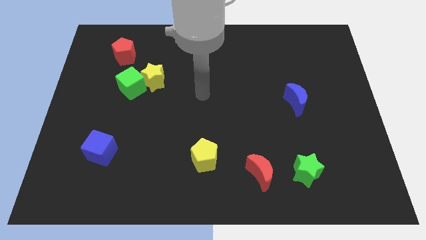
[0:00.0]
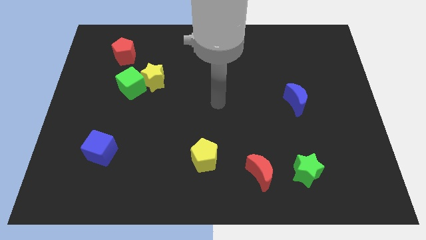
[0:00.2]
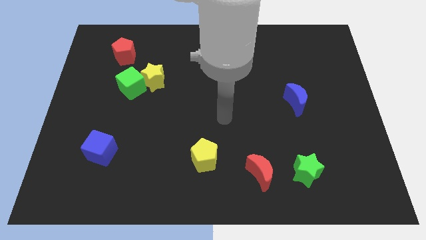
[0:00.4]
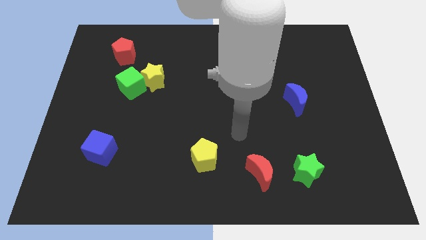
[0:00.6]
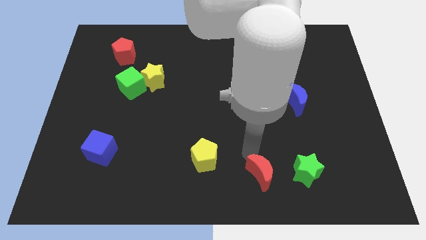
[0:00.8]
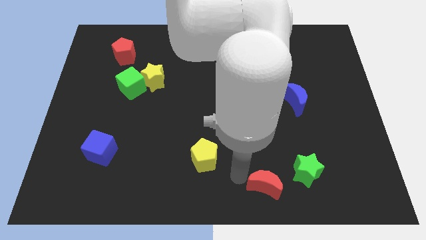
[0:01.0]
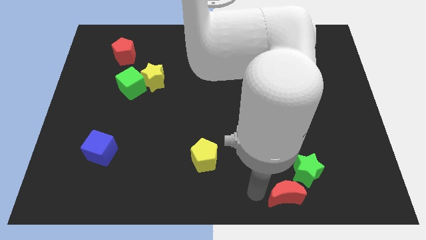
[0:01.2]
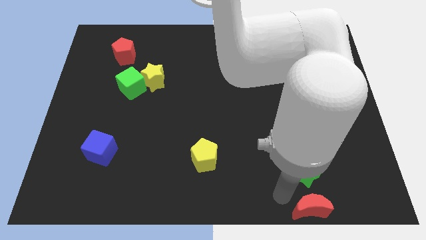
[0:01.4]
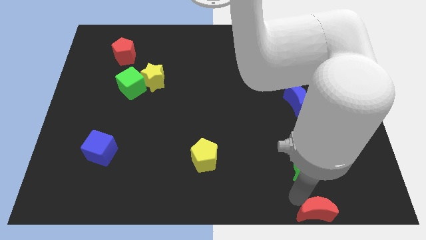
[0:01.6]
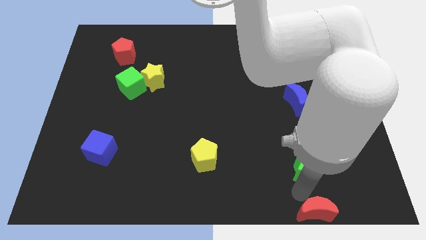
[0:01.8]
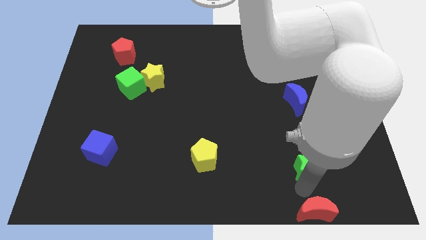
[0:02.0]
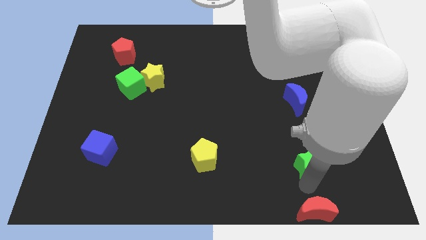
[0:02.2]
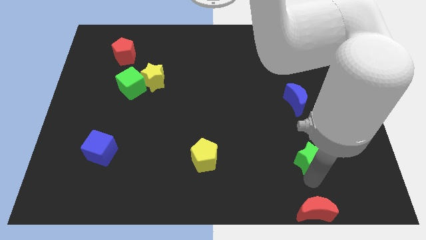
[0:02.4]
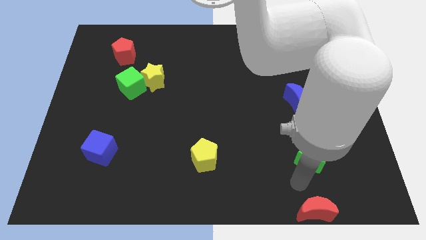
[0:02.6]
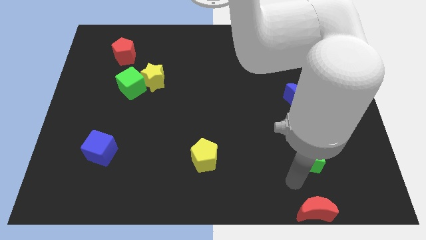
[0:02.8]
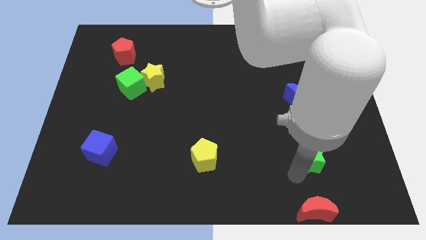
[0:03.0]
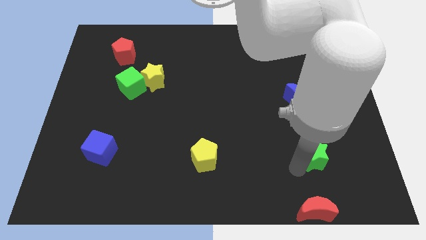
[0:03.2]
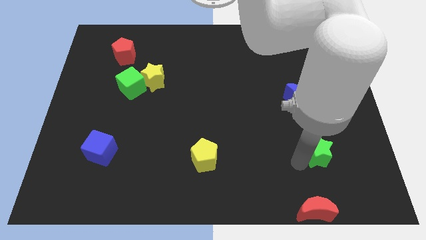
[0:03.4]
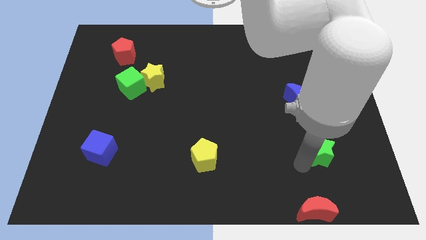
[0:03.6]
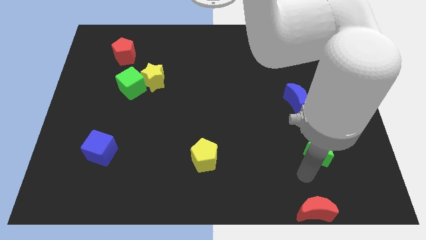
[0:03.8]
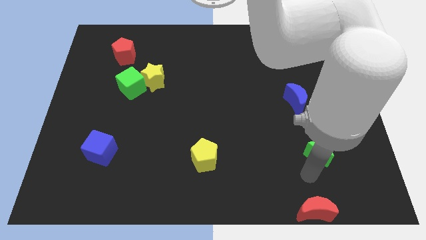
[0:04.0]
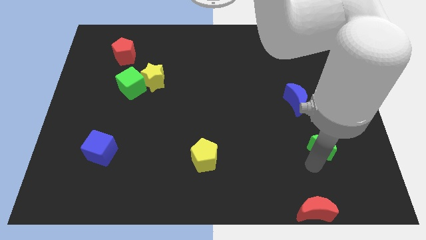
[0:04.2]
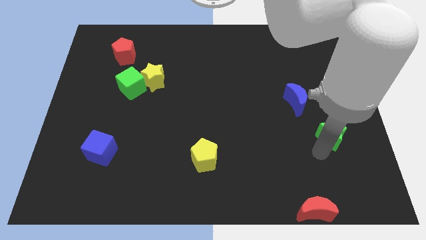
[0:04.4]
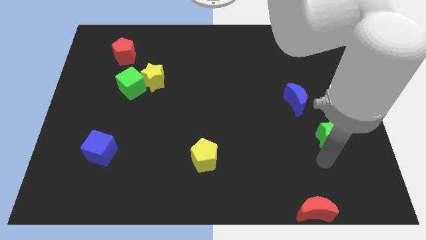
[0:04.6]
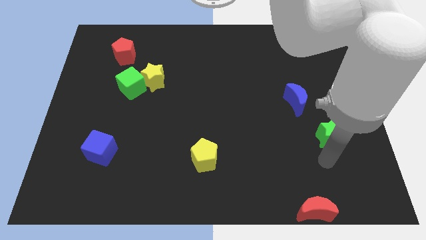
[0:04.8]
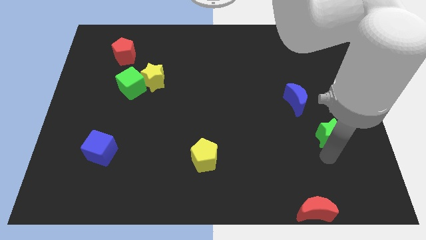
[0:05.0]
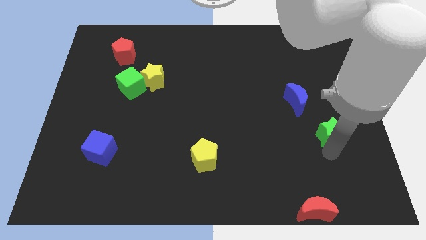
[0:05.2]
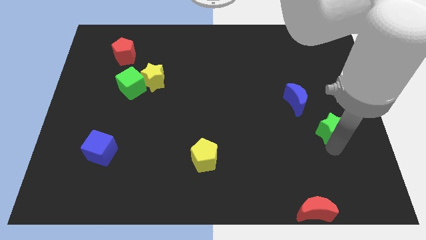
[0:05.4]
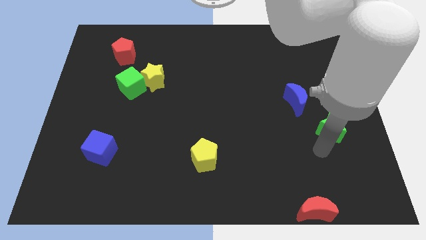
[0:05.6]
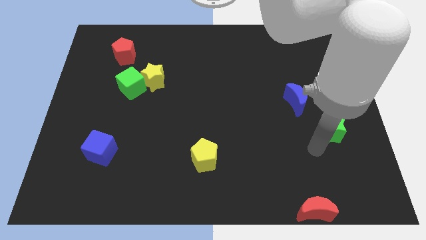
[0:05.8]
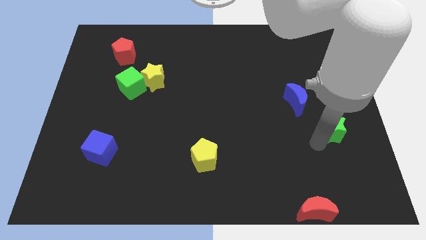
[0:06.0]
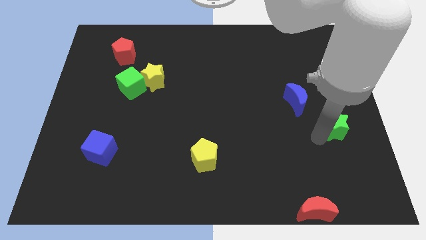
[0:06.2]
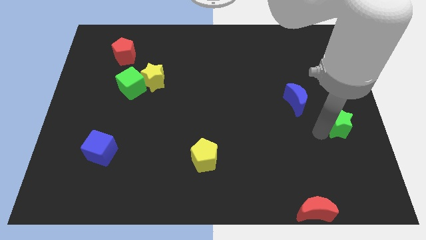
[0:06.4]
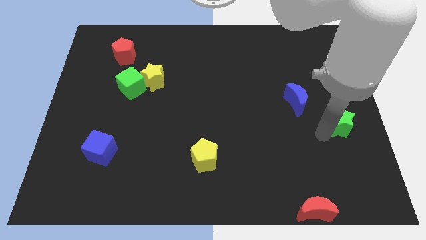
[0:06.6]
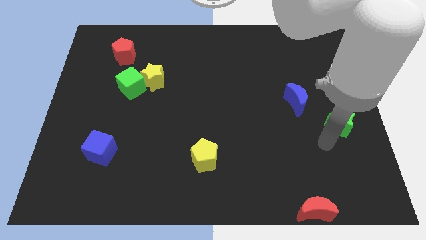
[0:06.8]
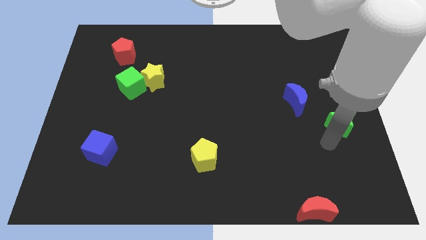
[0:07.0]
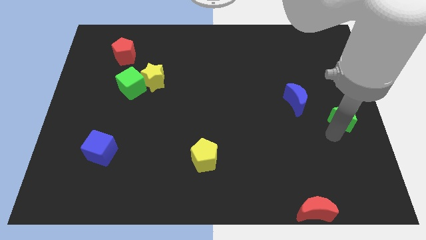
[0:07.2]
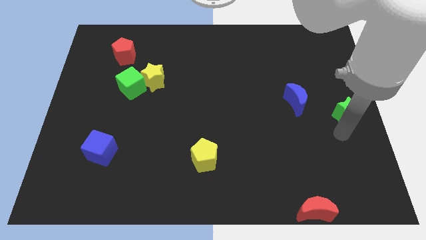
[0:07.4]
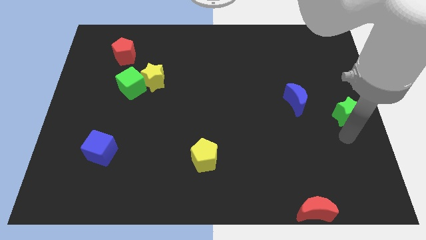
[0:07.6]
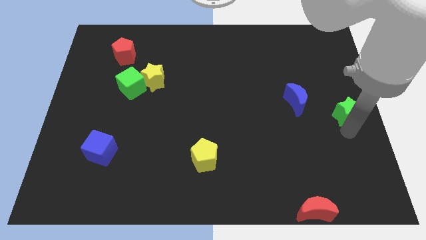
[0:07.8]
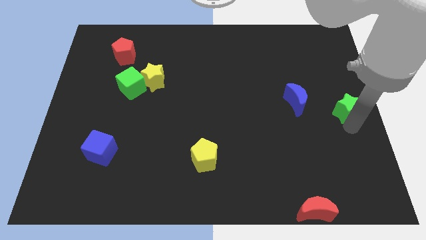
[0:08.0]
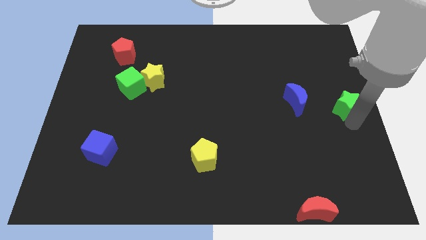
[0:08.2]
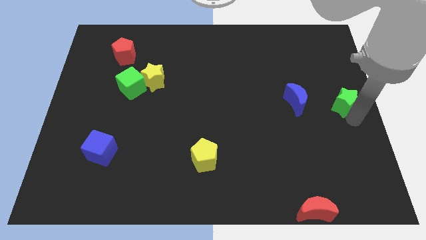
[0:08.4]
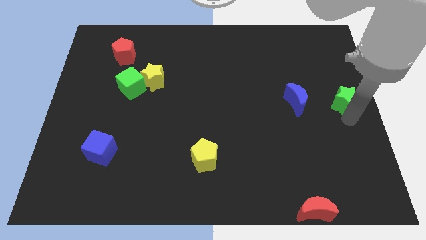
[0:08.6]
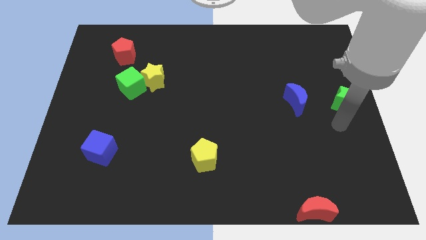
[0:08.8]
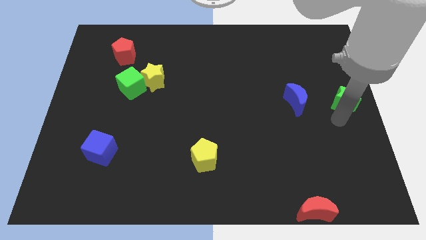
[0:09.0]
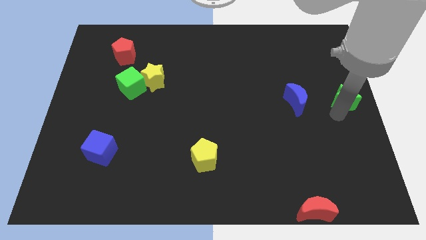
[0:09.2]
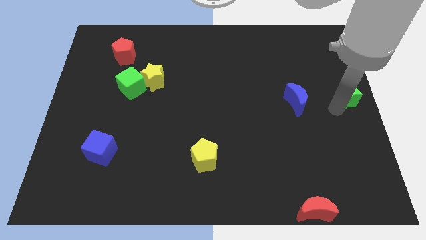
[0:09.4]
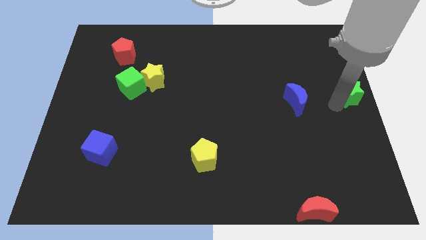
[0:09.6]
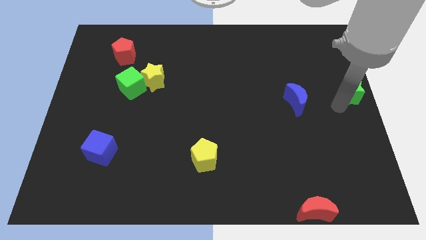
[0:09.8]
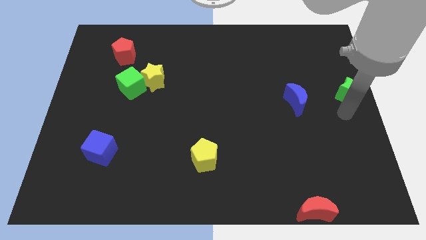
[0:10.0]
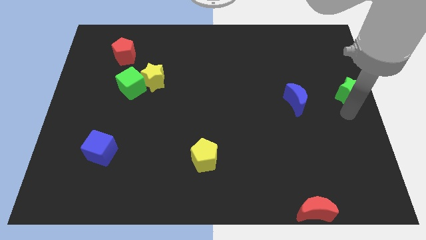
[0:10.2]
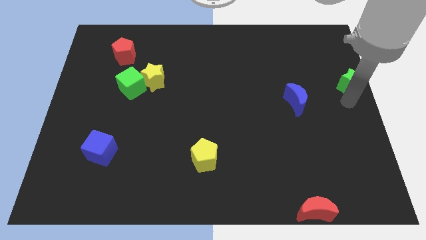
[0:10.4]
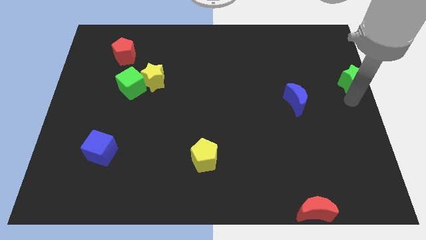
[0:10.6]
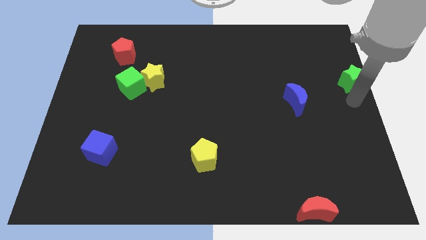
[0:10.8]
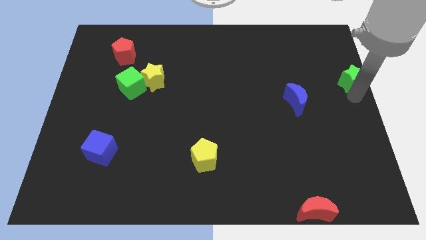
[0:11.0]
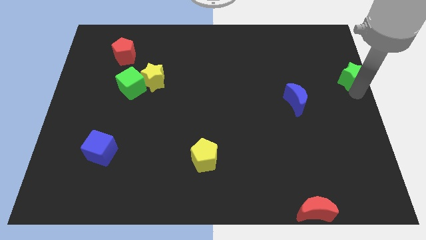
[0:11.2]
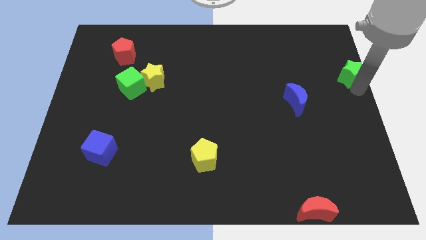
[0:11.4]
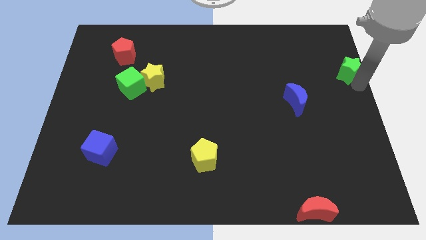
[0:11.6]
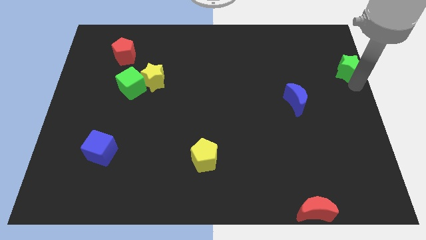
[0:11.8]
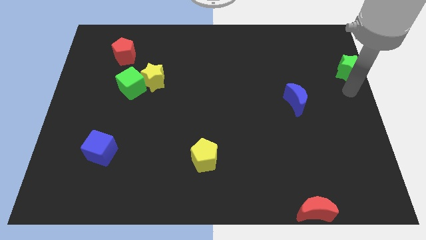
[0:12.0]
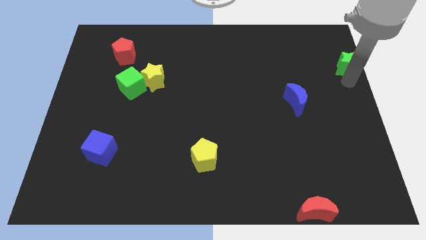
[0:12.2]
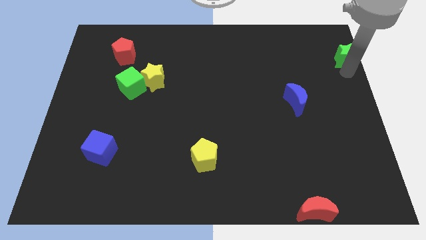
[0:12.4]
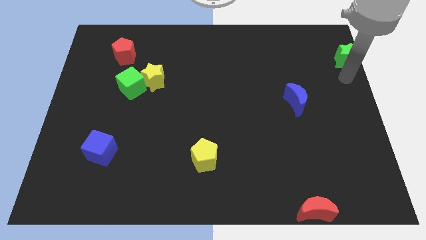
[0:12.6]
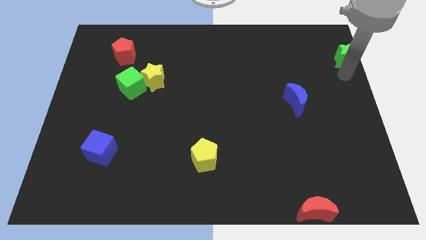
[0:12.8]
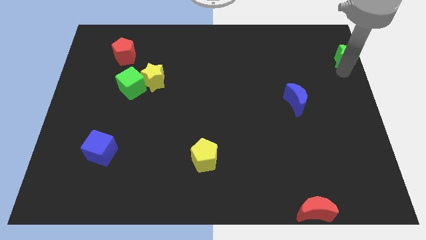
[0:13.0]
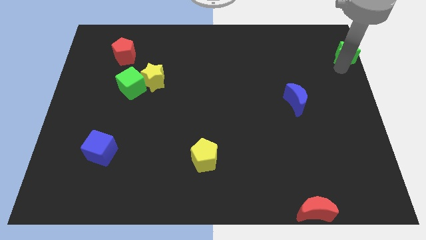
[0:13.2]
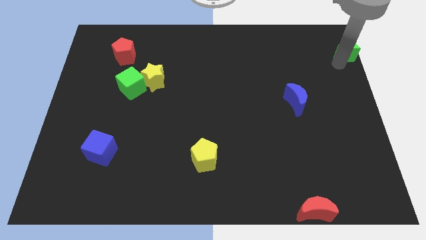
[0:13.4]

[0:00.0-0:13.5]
push the green star to the upper right corner
